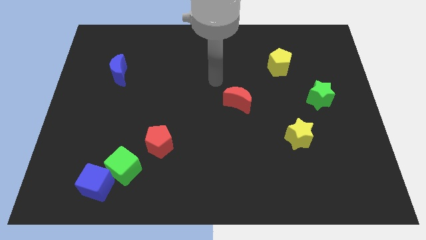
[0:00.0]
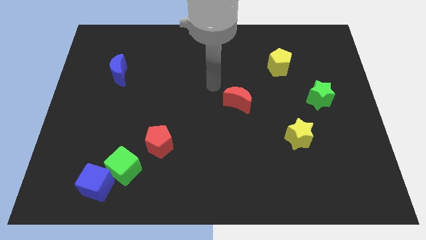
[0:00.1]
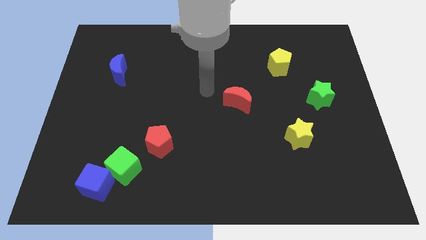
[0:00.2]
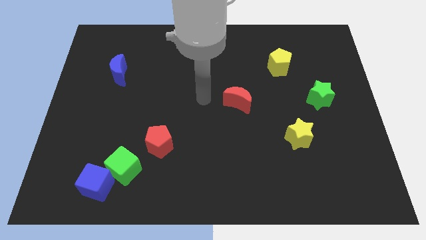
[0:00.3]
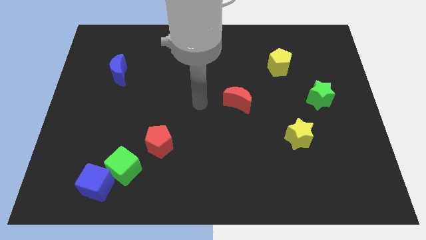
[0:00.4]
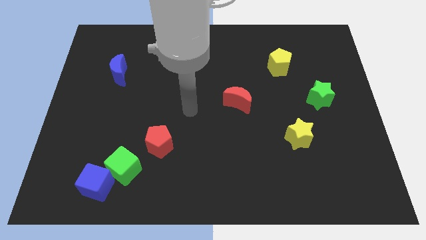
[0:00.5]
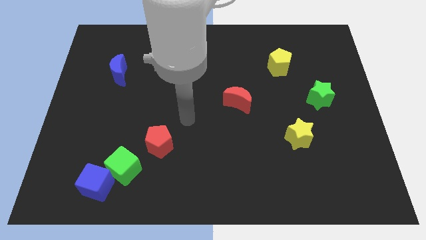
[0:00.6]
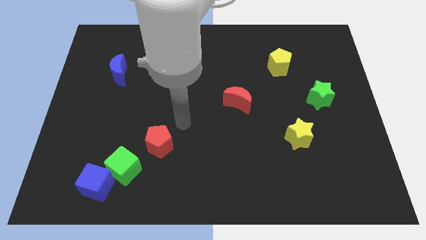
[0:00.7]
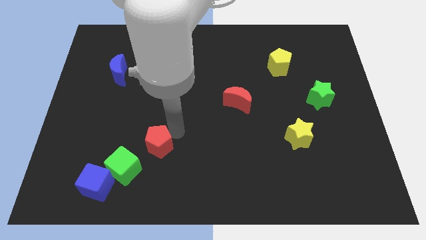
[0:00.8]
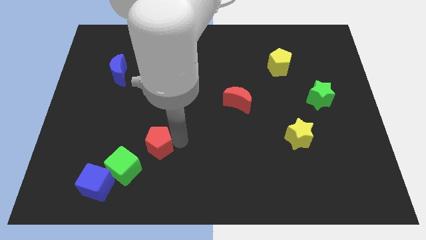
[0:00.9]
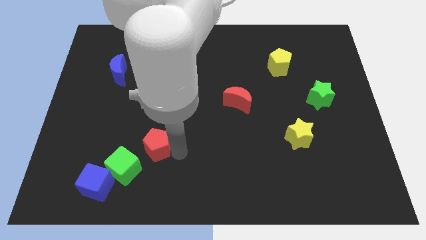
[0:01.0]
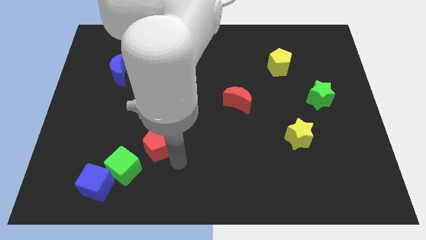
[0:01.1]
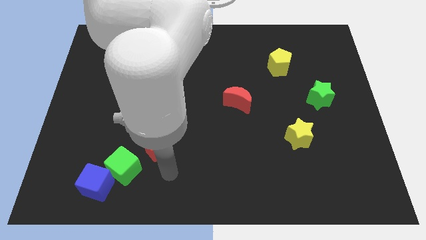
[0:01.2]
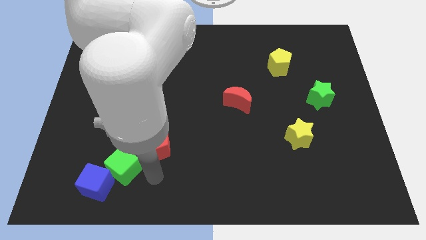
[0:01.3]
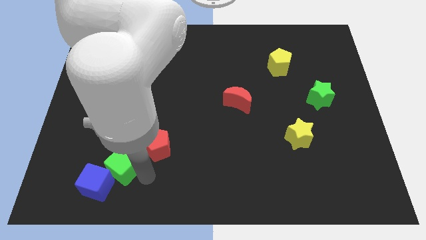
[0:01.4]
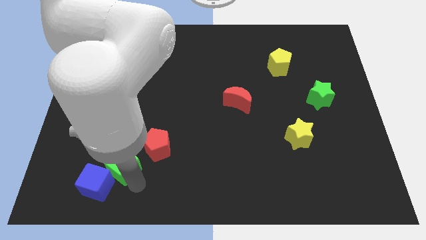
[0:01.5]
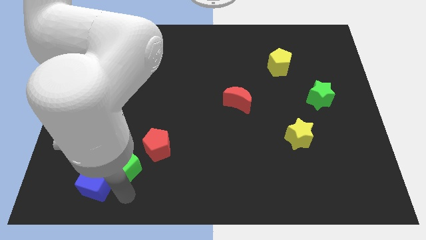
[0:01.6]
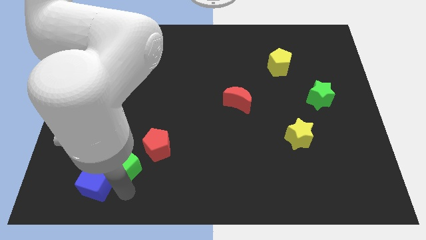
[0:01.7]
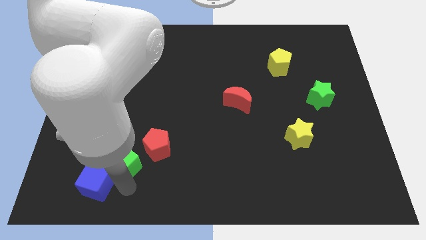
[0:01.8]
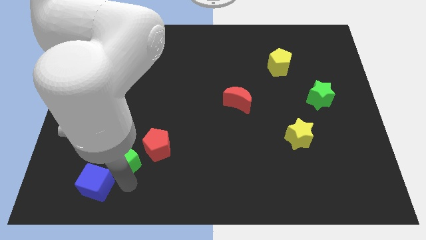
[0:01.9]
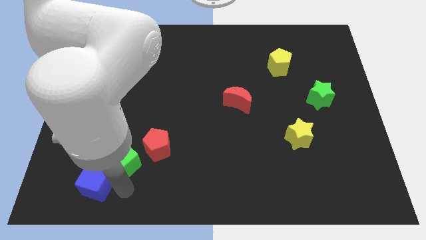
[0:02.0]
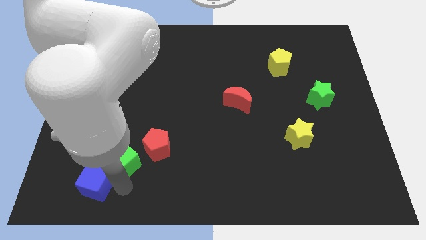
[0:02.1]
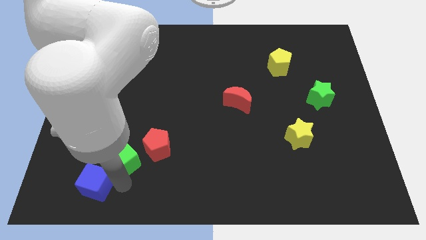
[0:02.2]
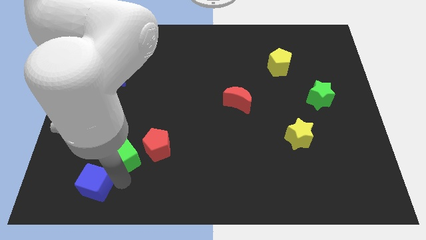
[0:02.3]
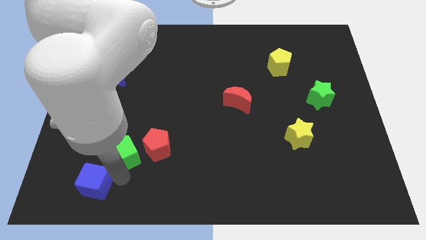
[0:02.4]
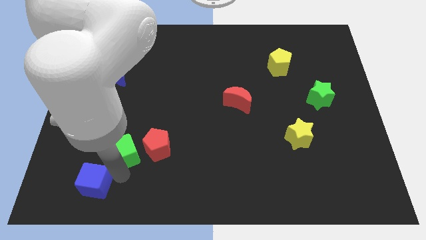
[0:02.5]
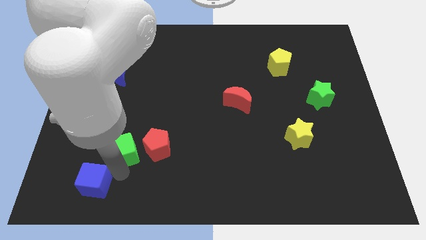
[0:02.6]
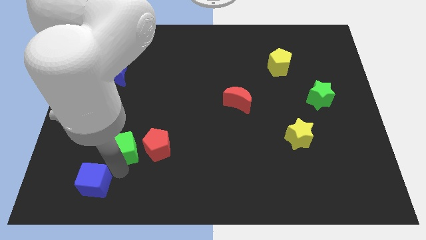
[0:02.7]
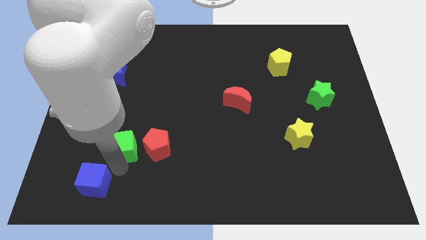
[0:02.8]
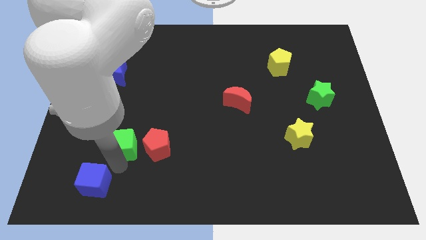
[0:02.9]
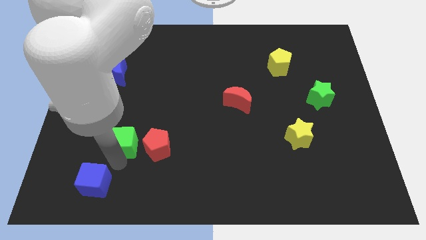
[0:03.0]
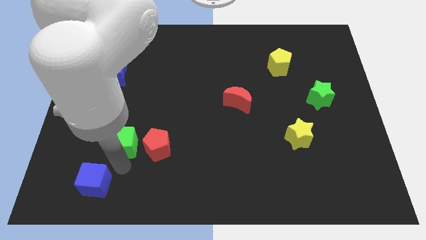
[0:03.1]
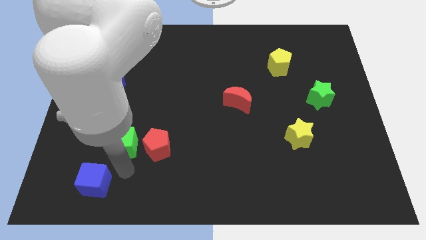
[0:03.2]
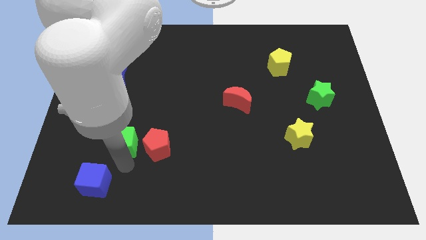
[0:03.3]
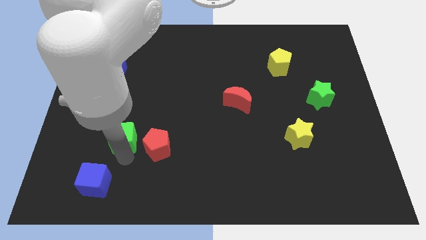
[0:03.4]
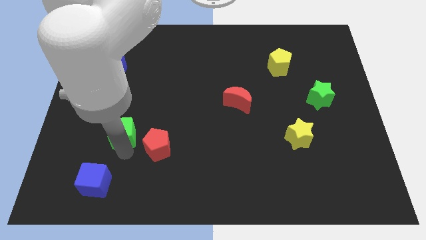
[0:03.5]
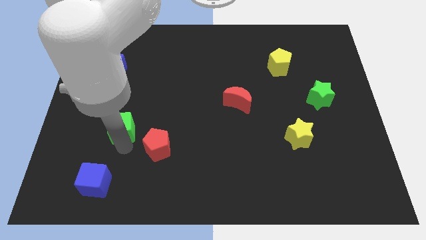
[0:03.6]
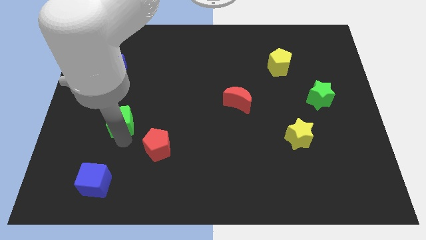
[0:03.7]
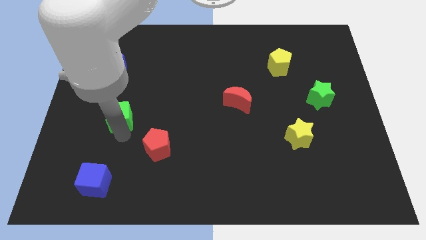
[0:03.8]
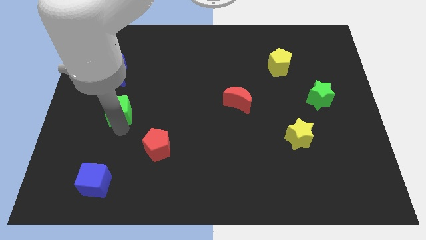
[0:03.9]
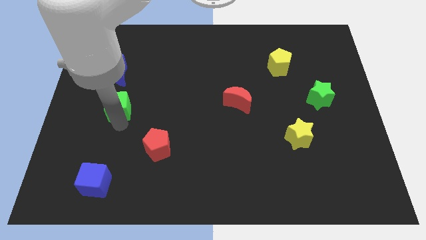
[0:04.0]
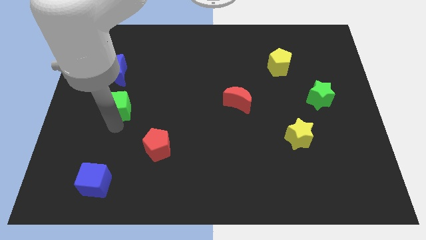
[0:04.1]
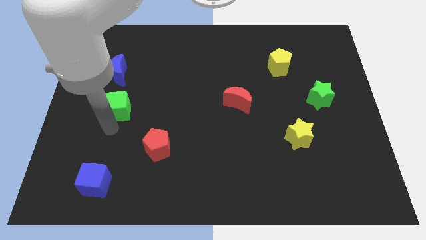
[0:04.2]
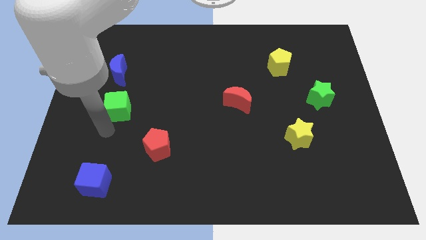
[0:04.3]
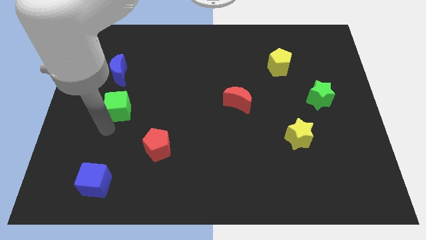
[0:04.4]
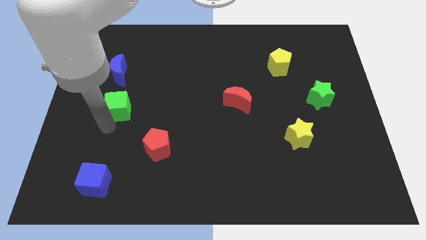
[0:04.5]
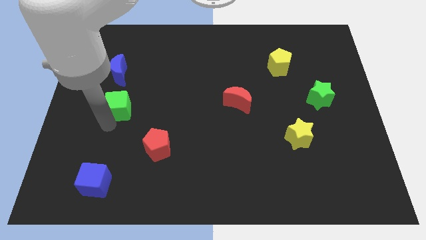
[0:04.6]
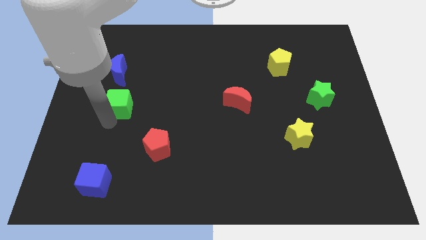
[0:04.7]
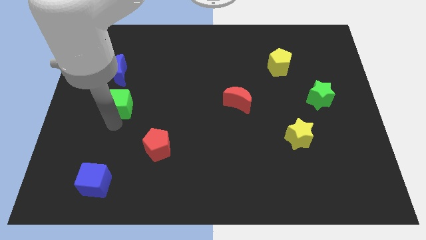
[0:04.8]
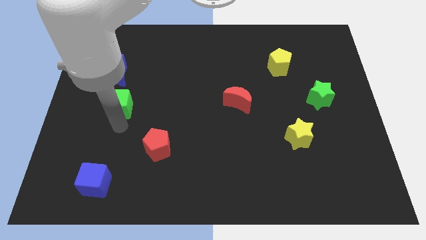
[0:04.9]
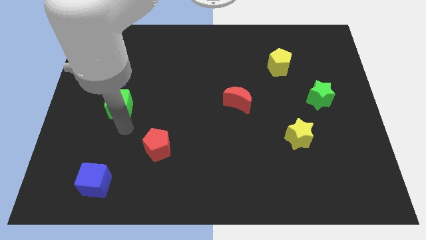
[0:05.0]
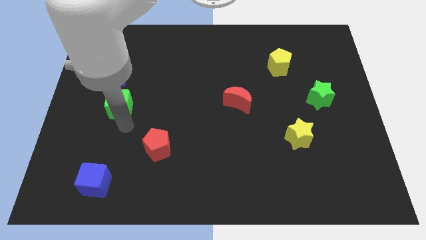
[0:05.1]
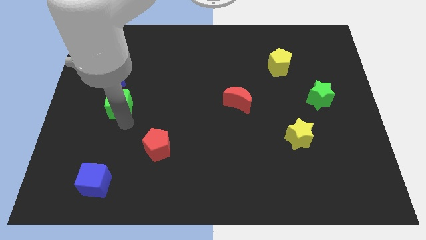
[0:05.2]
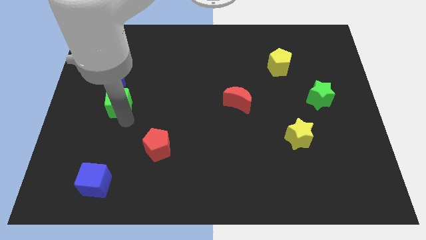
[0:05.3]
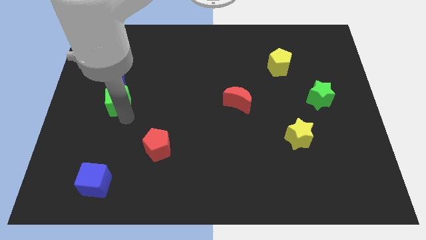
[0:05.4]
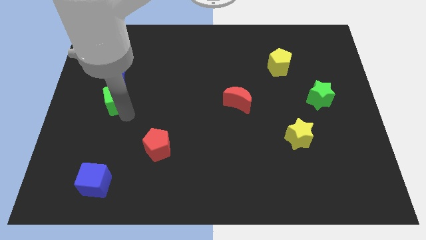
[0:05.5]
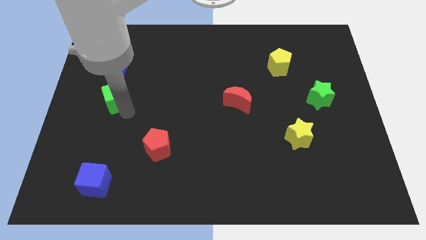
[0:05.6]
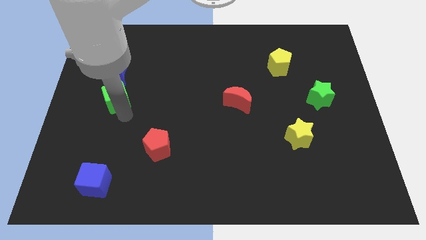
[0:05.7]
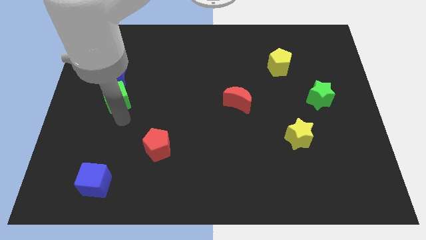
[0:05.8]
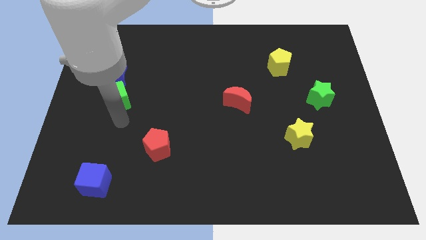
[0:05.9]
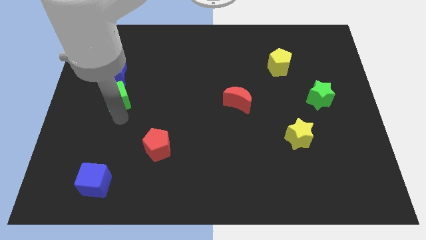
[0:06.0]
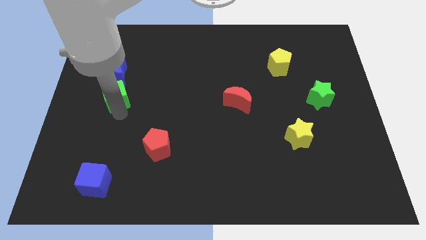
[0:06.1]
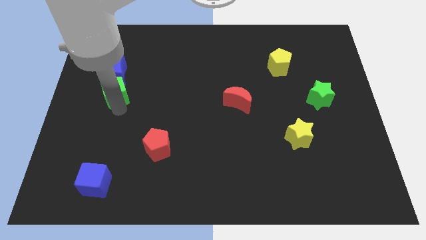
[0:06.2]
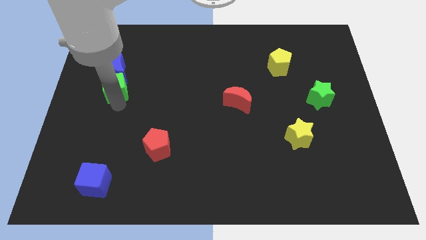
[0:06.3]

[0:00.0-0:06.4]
put the green cube to the blue moon

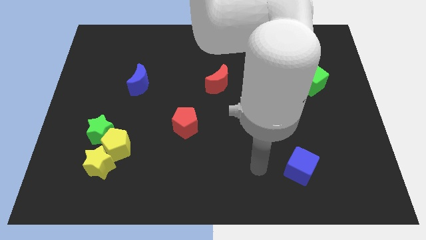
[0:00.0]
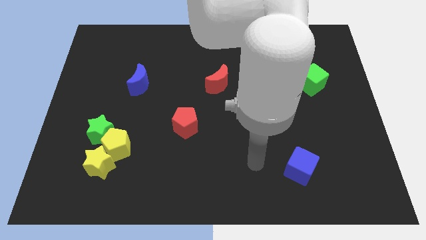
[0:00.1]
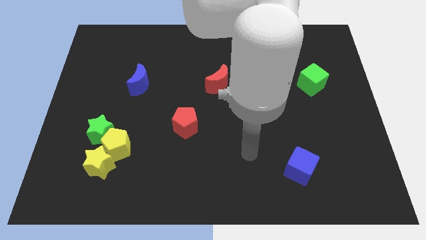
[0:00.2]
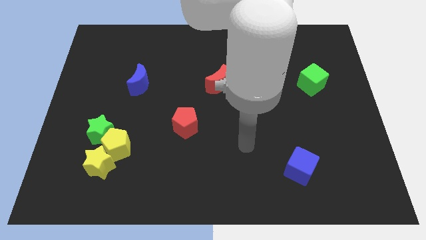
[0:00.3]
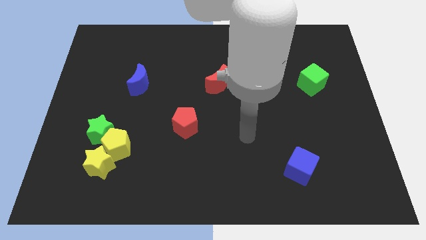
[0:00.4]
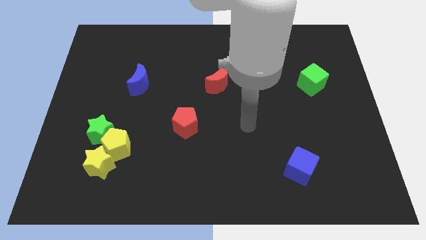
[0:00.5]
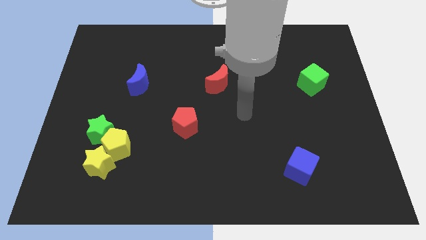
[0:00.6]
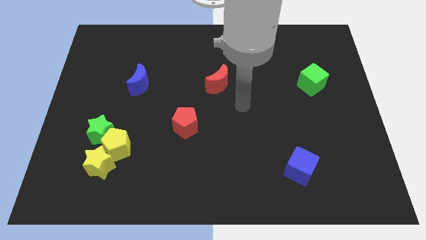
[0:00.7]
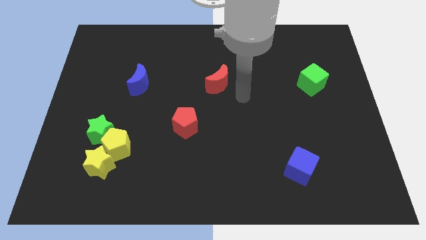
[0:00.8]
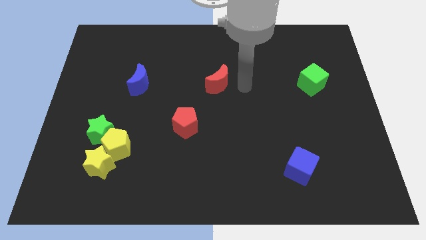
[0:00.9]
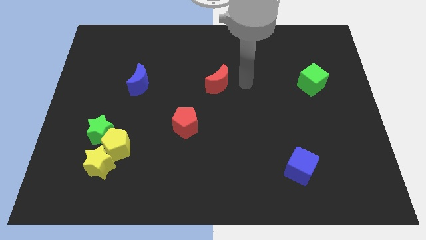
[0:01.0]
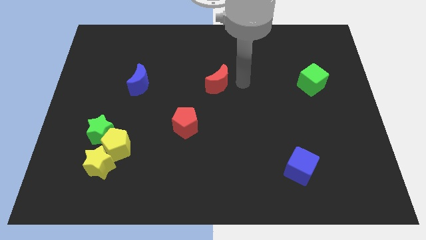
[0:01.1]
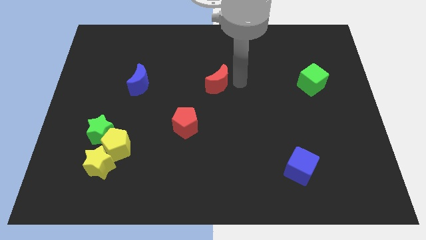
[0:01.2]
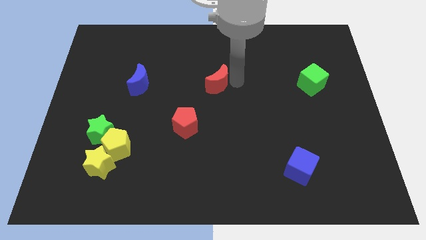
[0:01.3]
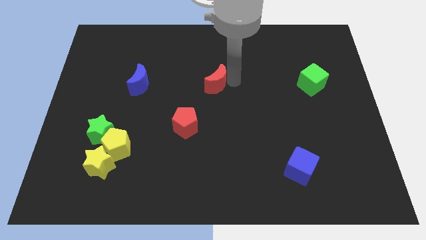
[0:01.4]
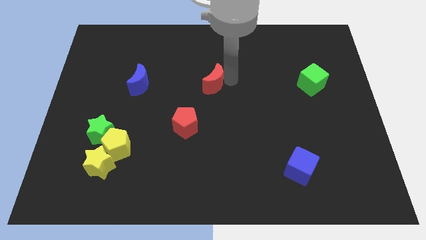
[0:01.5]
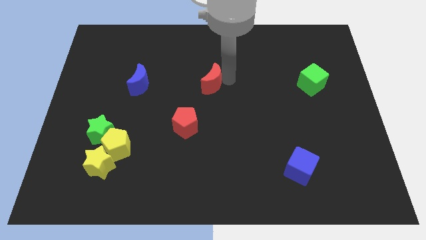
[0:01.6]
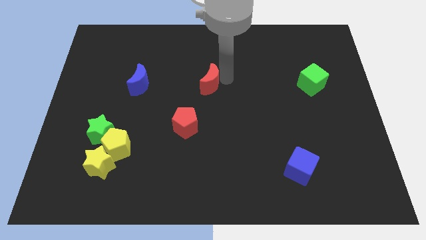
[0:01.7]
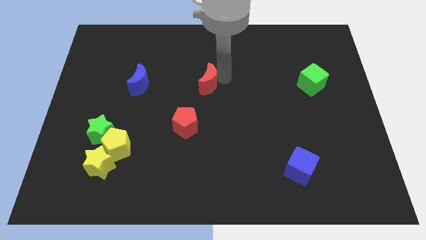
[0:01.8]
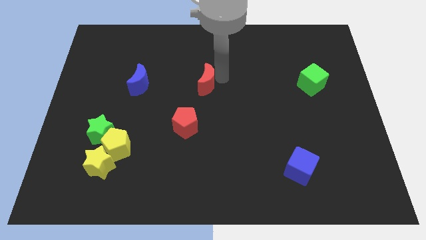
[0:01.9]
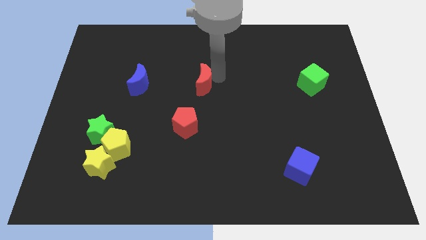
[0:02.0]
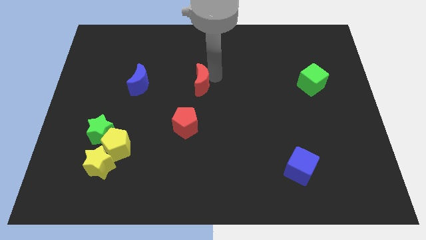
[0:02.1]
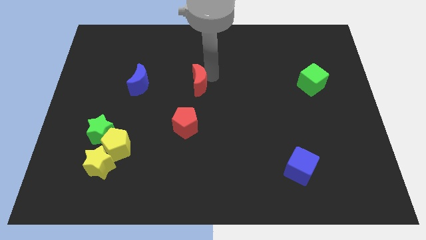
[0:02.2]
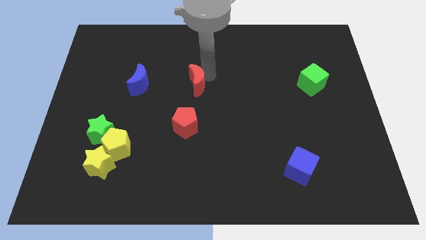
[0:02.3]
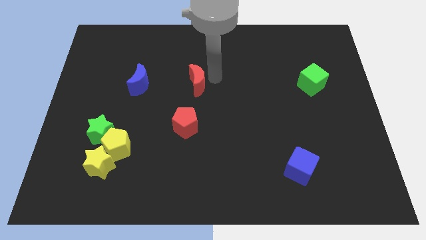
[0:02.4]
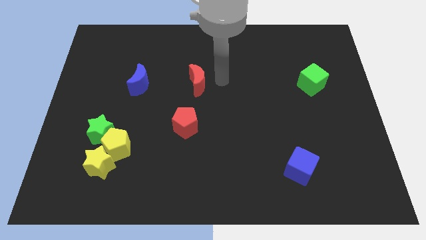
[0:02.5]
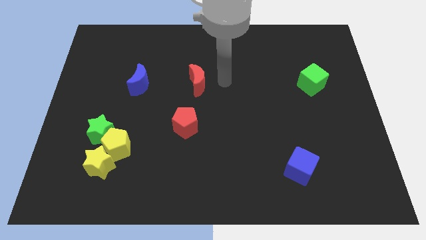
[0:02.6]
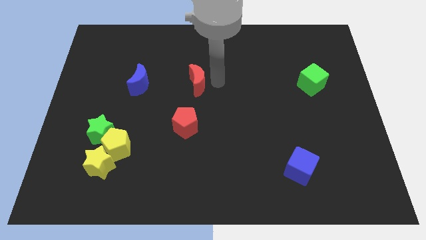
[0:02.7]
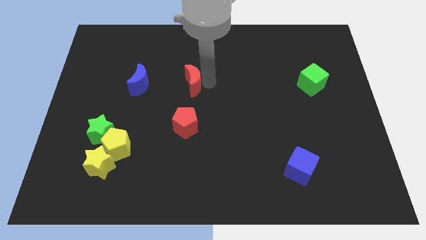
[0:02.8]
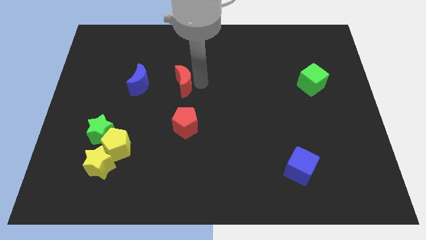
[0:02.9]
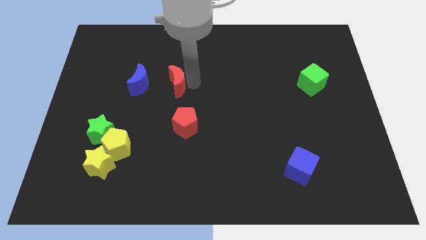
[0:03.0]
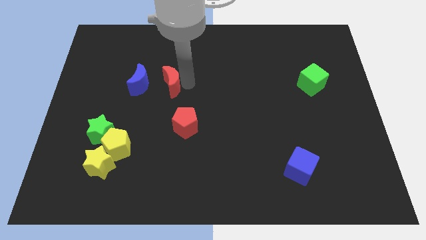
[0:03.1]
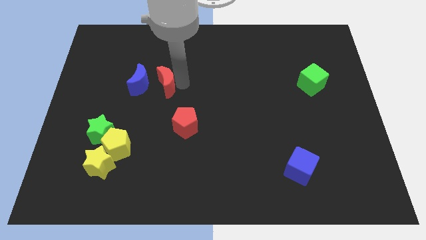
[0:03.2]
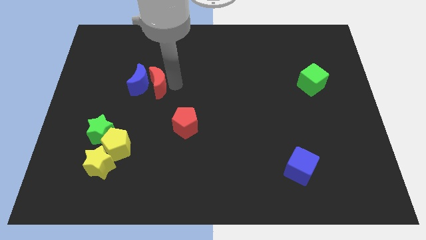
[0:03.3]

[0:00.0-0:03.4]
slide the red moon towards the blue moon
